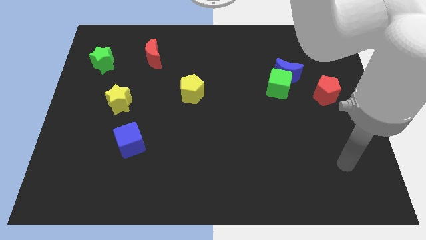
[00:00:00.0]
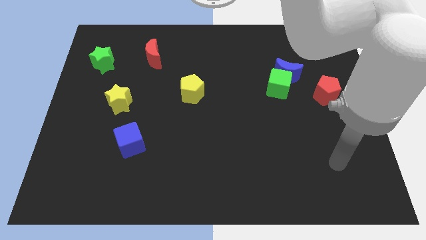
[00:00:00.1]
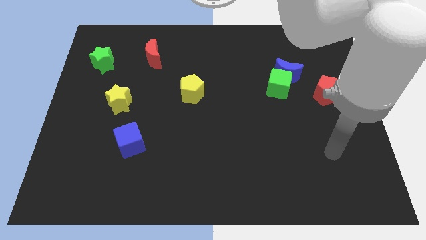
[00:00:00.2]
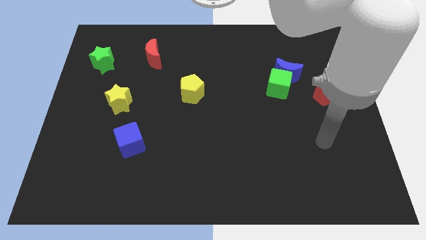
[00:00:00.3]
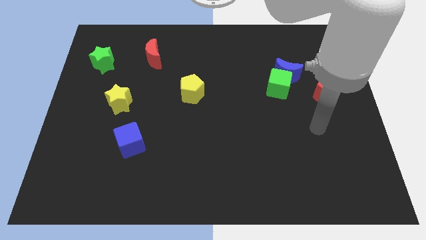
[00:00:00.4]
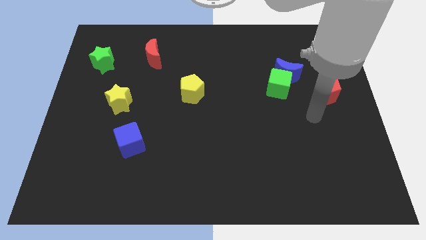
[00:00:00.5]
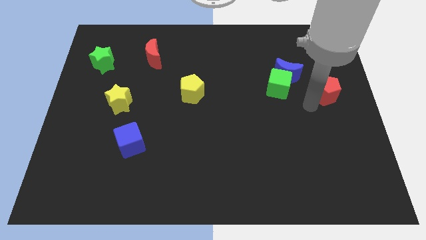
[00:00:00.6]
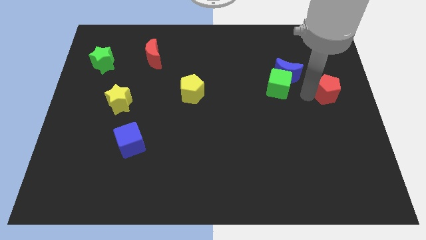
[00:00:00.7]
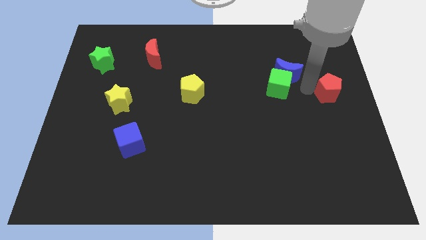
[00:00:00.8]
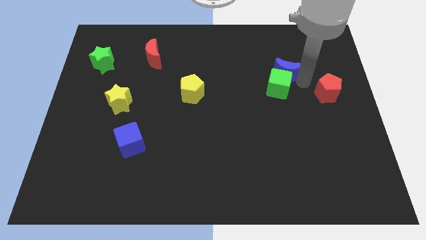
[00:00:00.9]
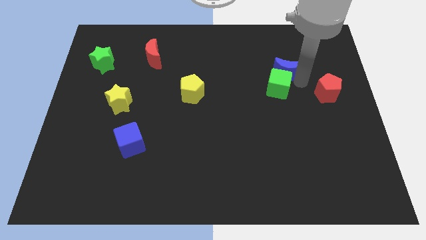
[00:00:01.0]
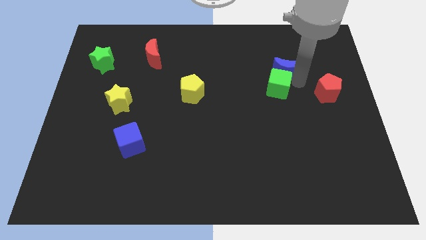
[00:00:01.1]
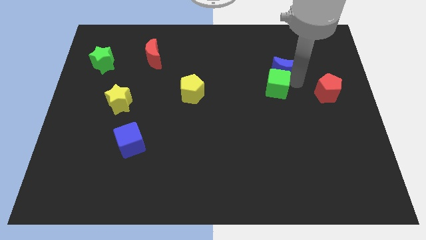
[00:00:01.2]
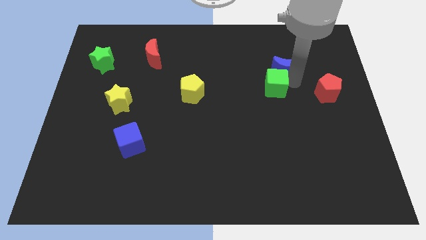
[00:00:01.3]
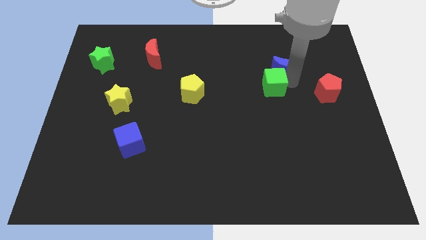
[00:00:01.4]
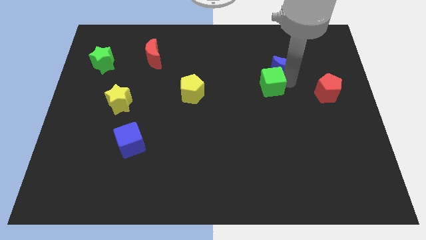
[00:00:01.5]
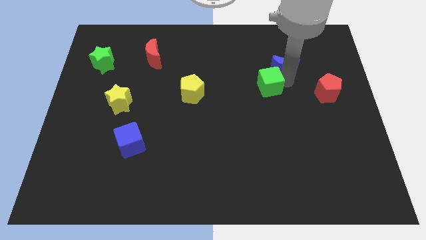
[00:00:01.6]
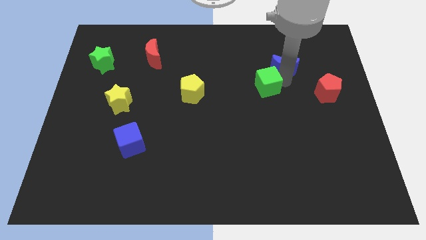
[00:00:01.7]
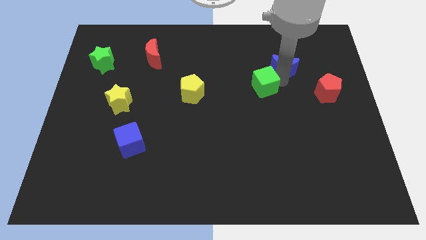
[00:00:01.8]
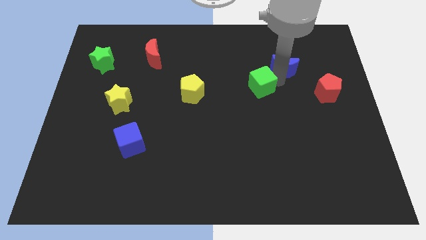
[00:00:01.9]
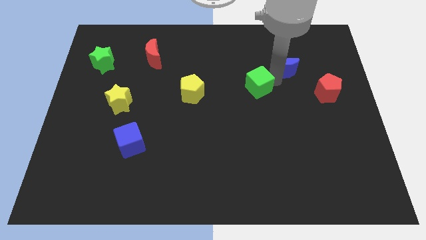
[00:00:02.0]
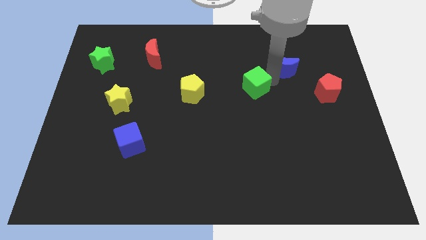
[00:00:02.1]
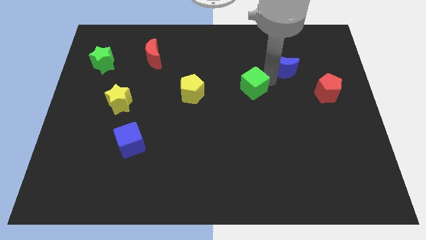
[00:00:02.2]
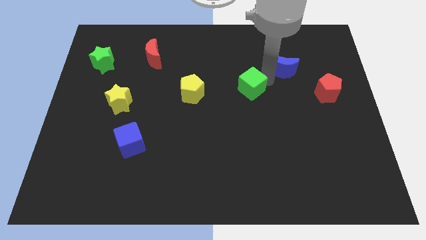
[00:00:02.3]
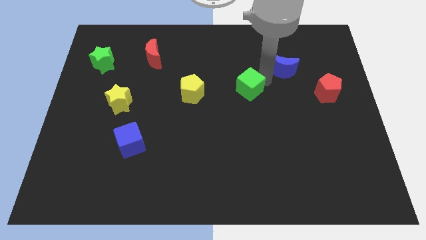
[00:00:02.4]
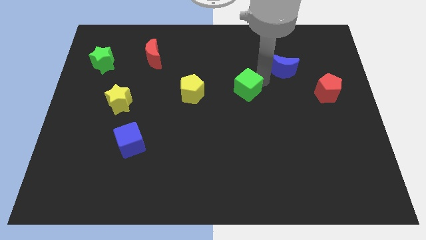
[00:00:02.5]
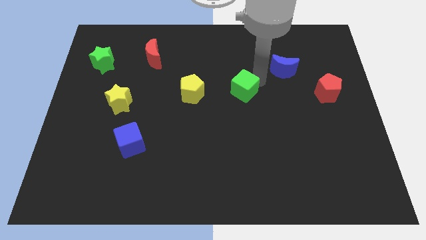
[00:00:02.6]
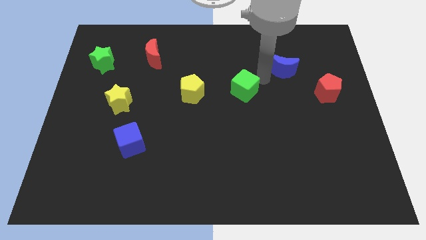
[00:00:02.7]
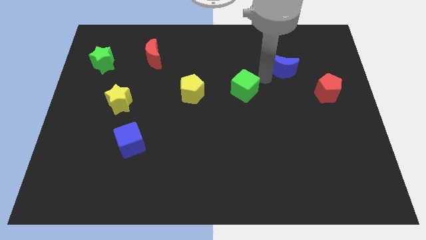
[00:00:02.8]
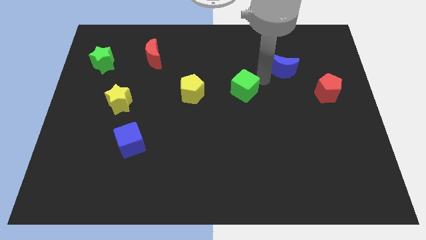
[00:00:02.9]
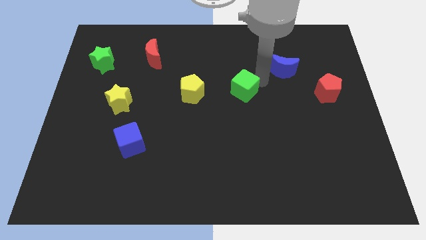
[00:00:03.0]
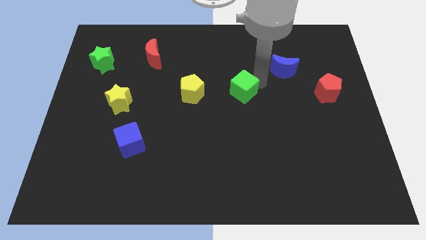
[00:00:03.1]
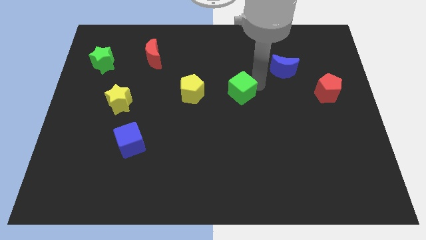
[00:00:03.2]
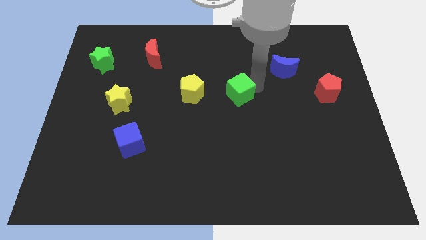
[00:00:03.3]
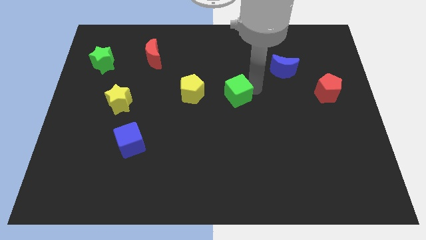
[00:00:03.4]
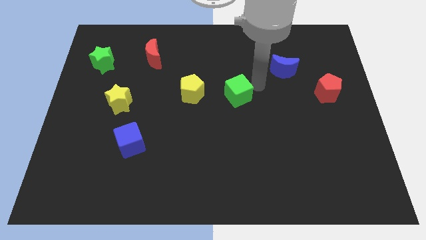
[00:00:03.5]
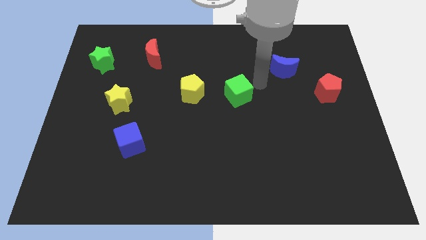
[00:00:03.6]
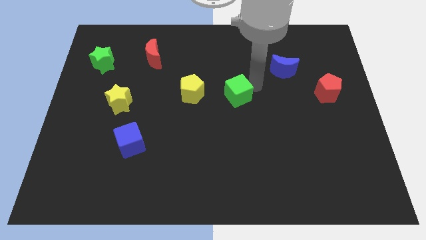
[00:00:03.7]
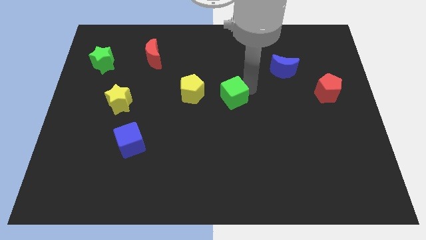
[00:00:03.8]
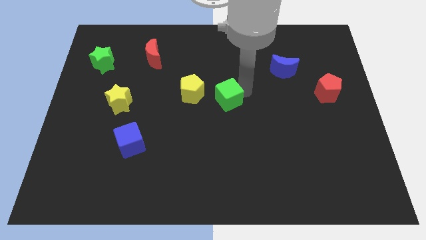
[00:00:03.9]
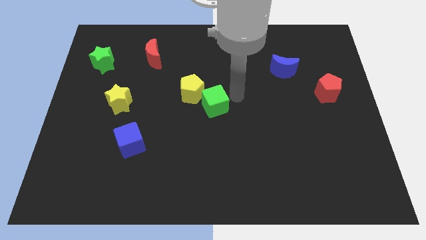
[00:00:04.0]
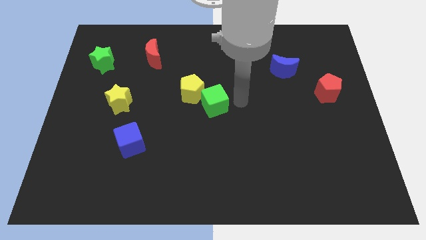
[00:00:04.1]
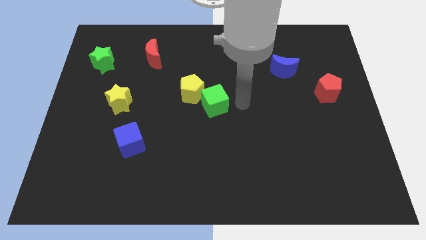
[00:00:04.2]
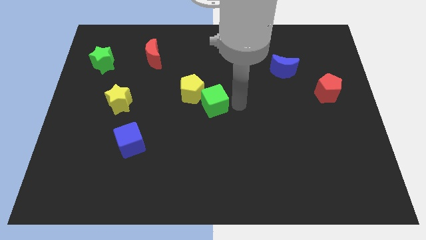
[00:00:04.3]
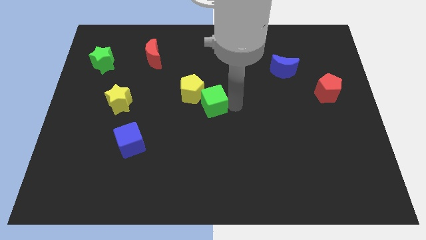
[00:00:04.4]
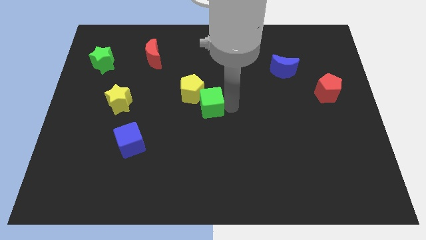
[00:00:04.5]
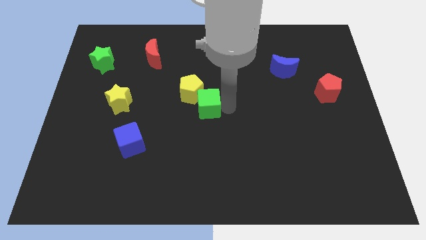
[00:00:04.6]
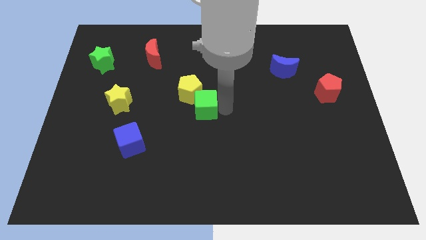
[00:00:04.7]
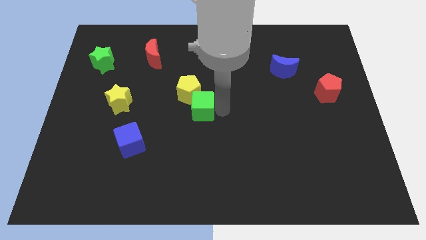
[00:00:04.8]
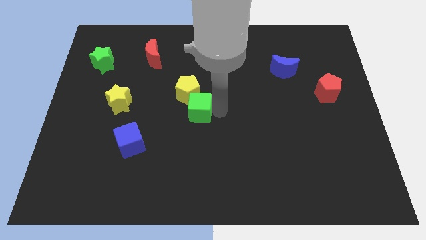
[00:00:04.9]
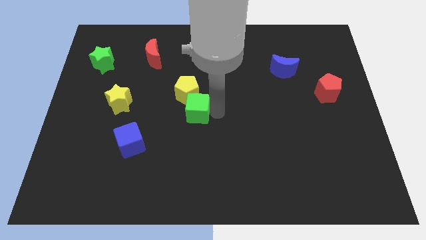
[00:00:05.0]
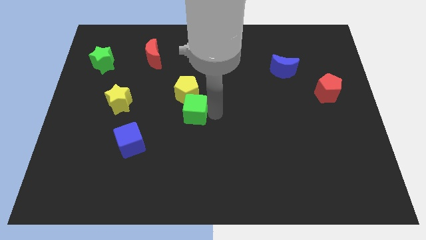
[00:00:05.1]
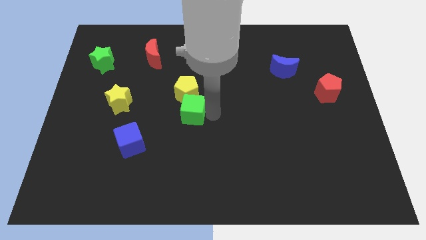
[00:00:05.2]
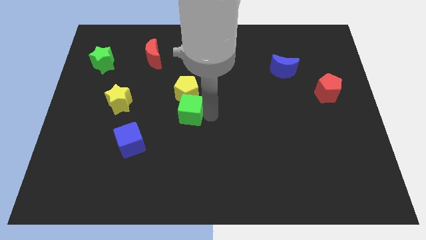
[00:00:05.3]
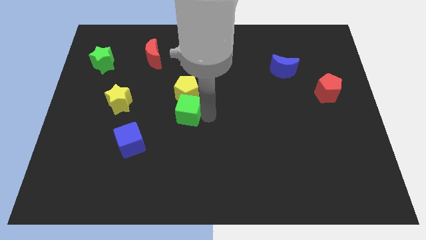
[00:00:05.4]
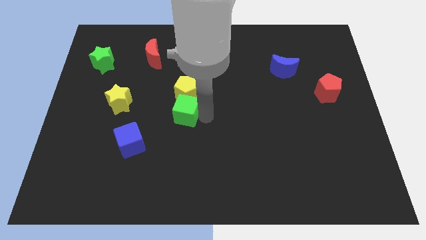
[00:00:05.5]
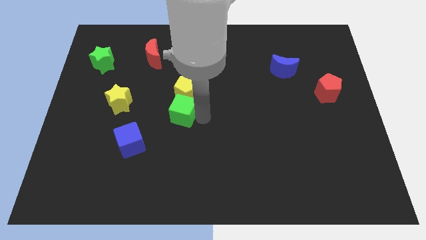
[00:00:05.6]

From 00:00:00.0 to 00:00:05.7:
slide the green cube just right of the yellow star

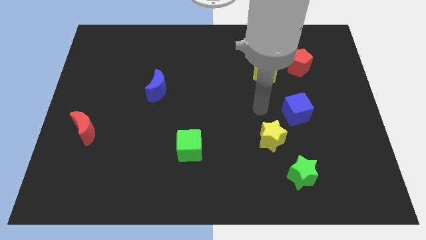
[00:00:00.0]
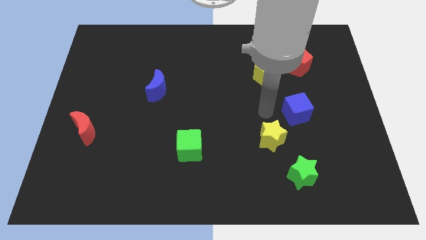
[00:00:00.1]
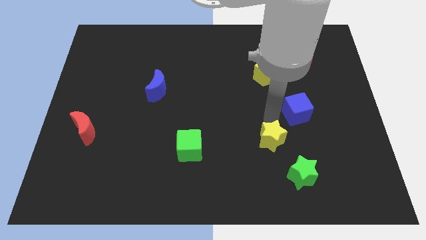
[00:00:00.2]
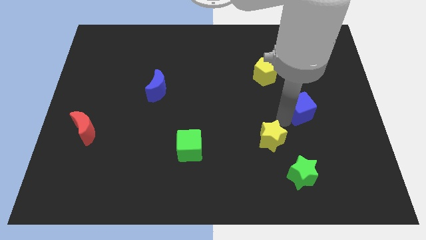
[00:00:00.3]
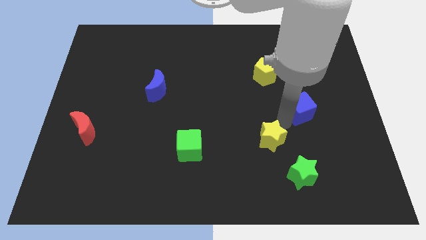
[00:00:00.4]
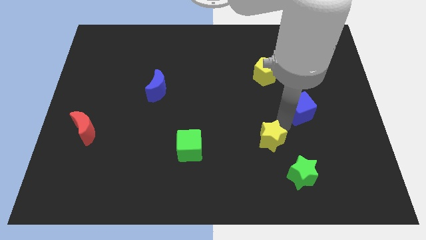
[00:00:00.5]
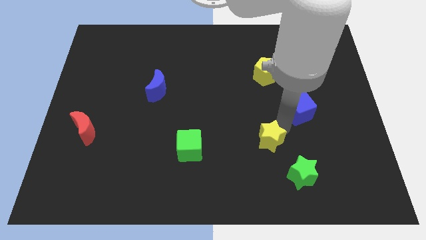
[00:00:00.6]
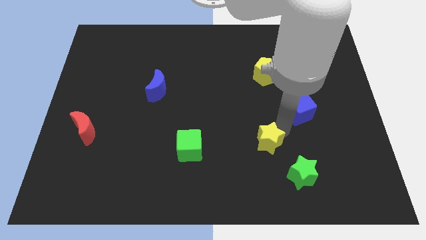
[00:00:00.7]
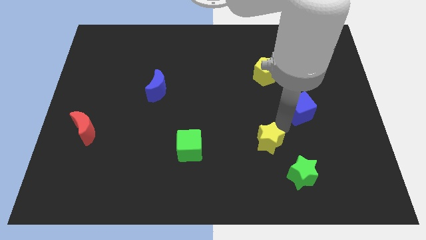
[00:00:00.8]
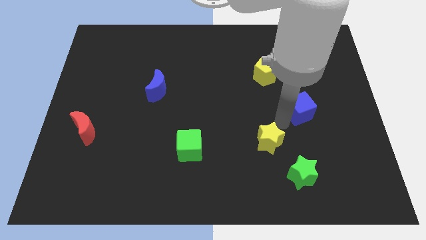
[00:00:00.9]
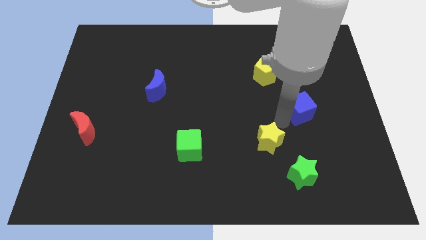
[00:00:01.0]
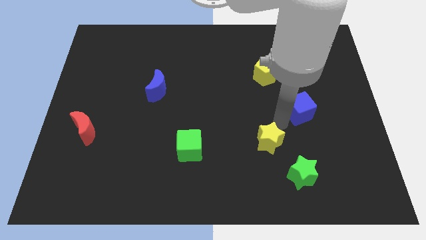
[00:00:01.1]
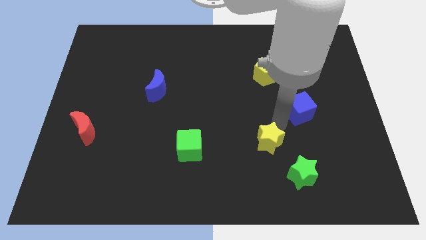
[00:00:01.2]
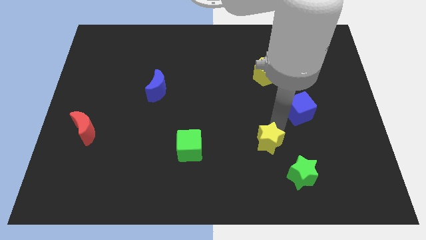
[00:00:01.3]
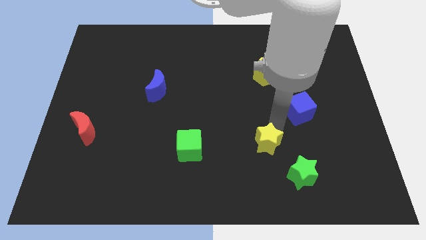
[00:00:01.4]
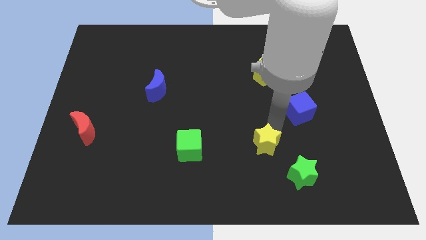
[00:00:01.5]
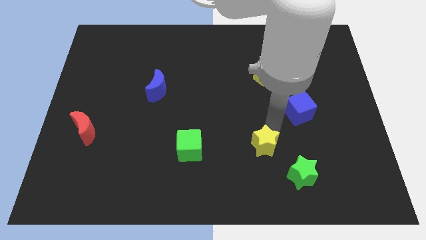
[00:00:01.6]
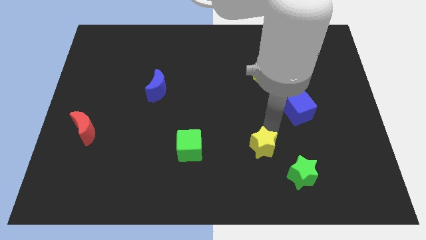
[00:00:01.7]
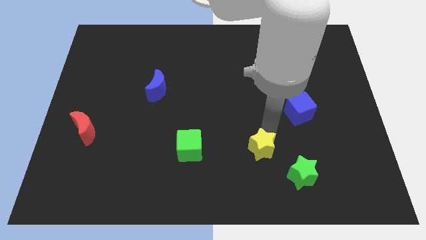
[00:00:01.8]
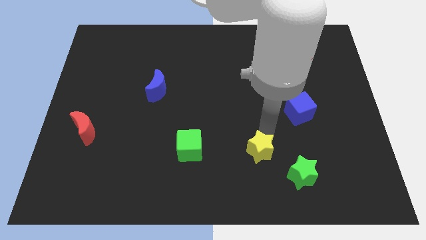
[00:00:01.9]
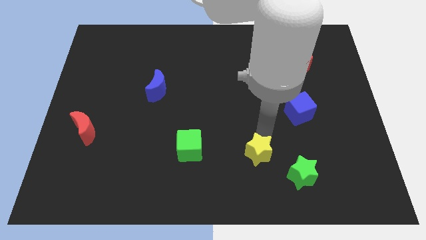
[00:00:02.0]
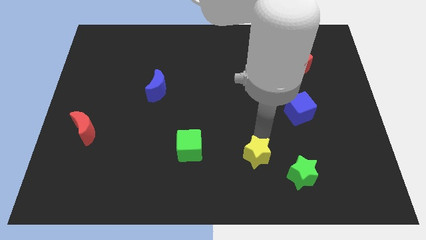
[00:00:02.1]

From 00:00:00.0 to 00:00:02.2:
put the yellow star left of the green star

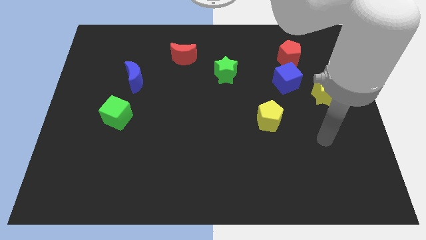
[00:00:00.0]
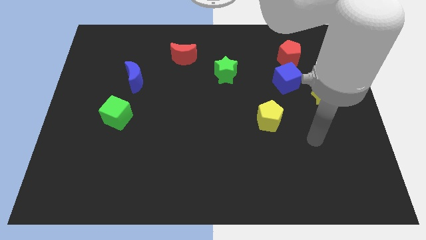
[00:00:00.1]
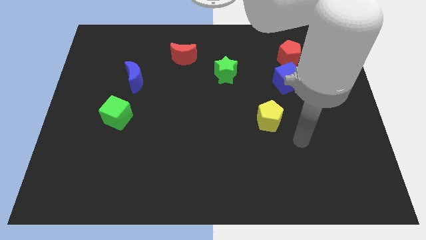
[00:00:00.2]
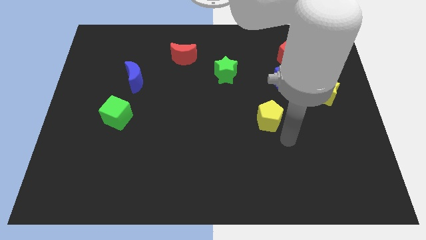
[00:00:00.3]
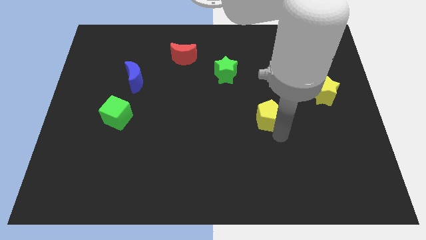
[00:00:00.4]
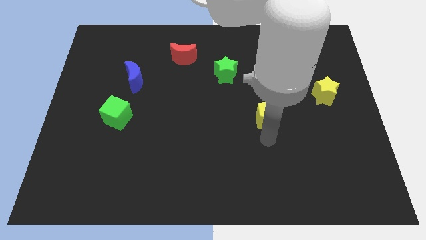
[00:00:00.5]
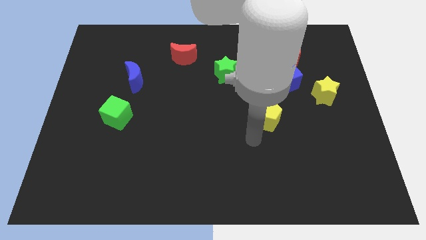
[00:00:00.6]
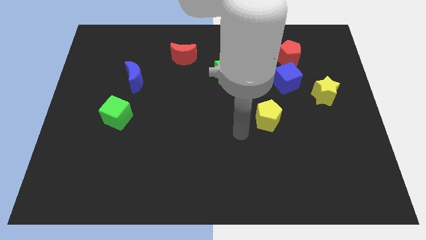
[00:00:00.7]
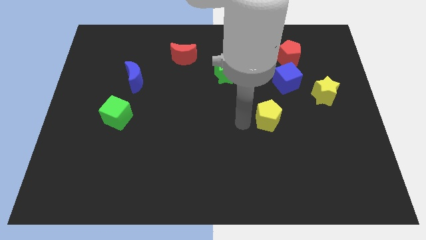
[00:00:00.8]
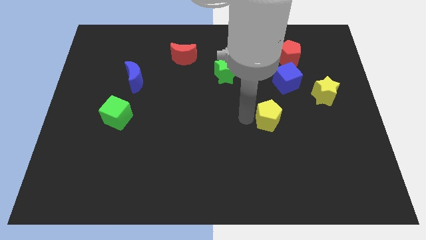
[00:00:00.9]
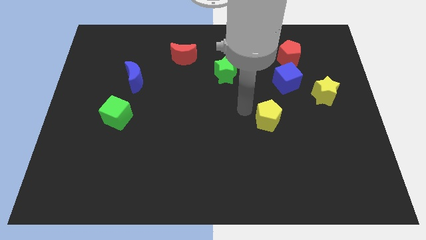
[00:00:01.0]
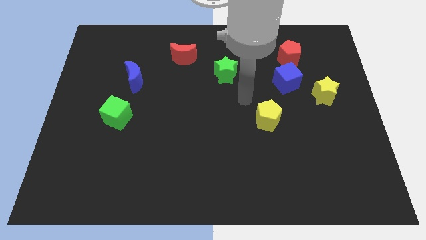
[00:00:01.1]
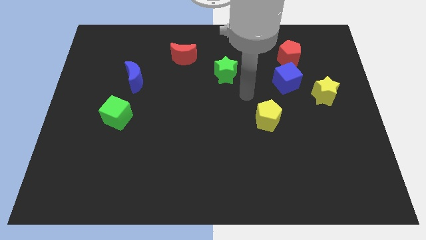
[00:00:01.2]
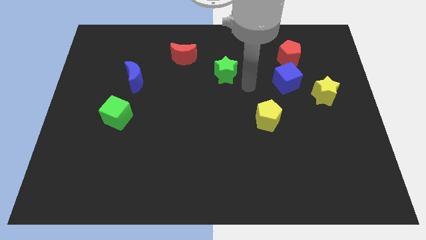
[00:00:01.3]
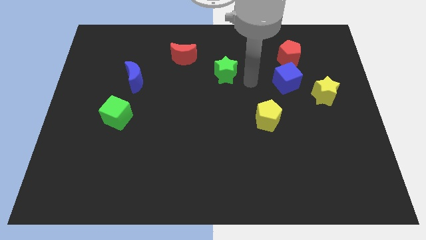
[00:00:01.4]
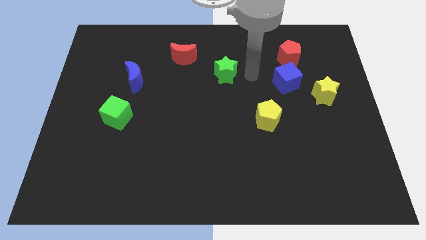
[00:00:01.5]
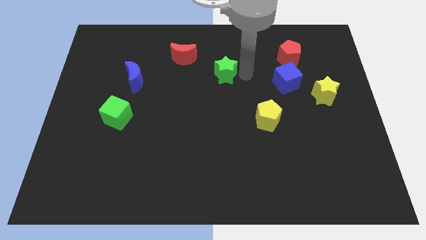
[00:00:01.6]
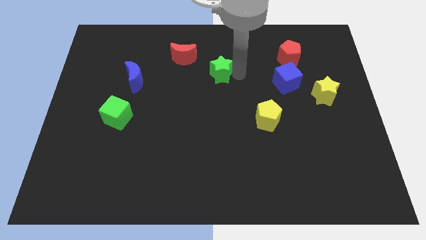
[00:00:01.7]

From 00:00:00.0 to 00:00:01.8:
move the green star to the bottom right side of the red moon
